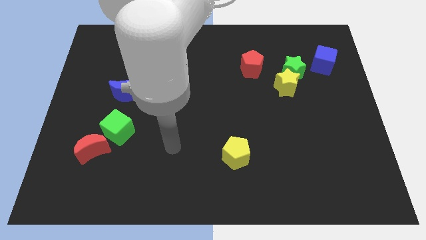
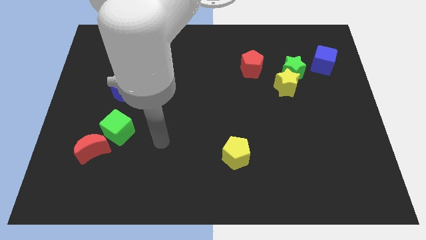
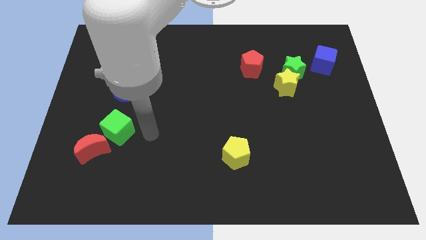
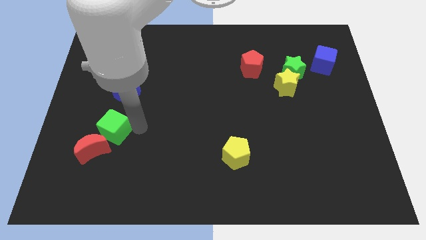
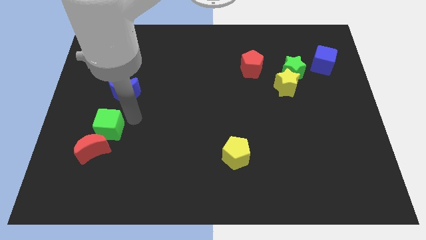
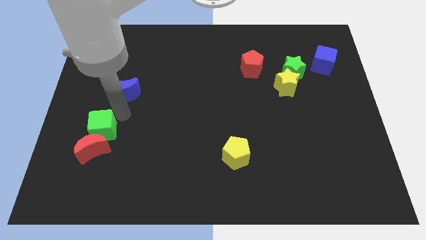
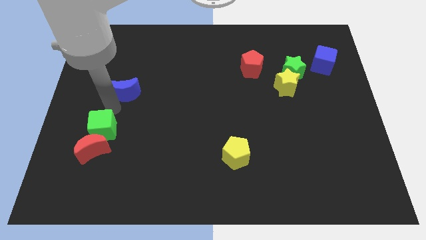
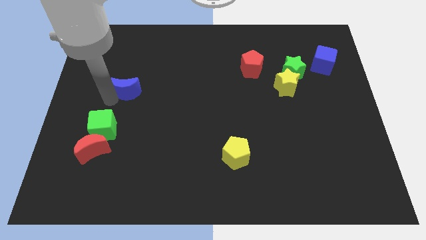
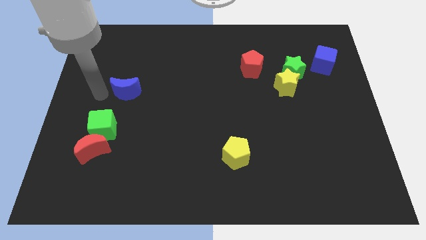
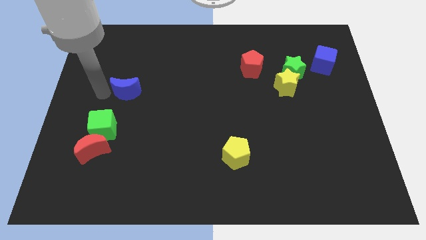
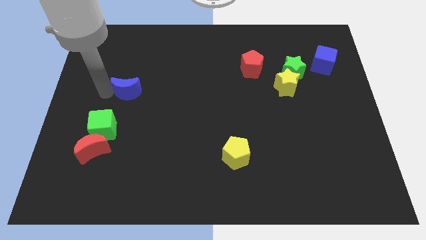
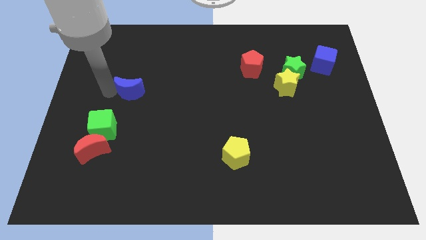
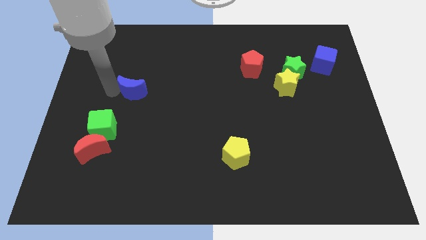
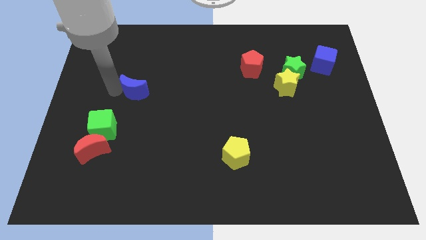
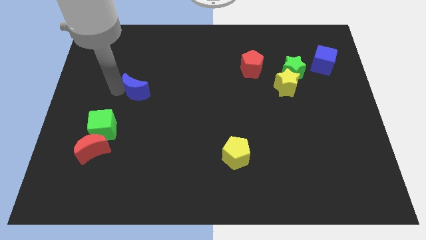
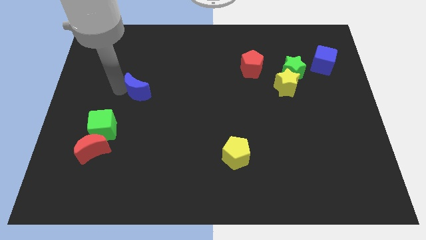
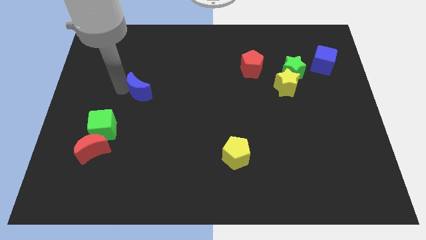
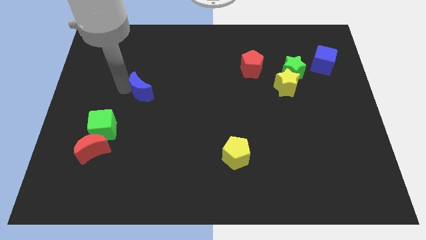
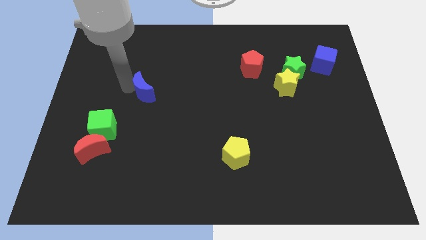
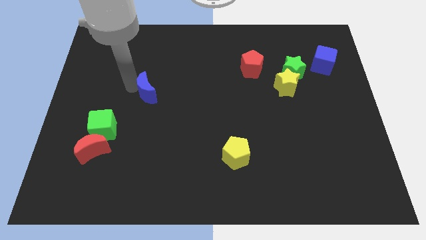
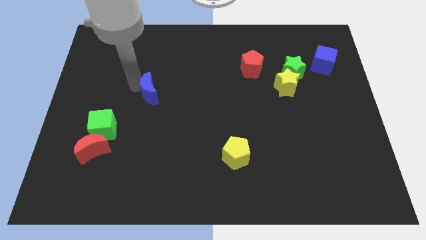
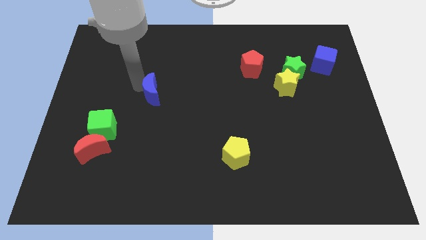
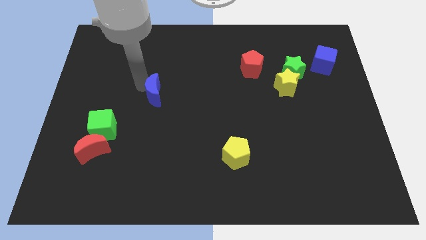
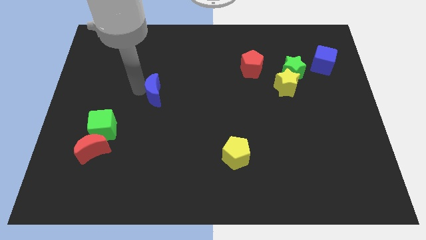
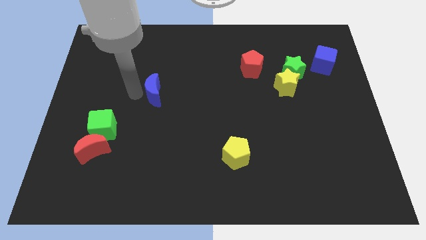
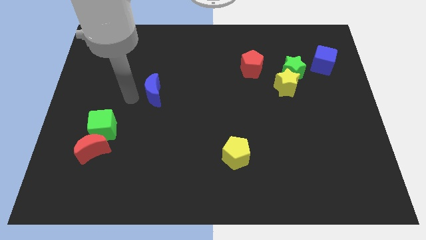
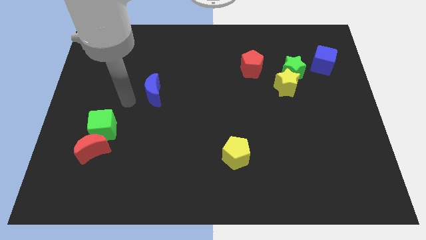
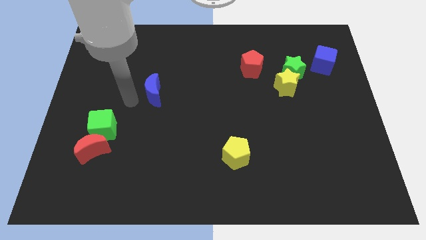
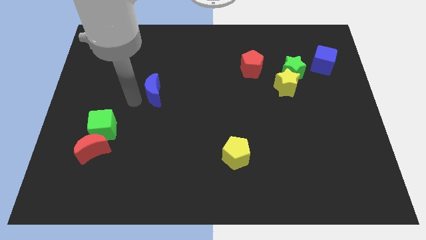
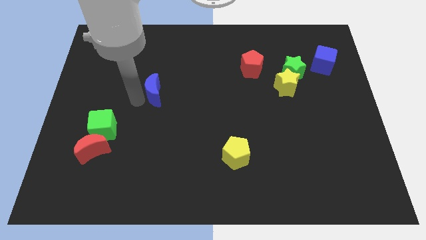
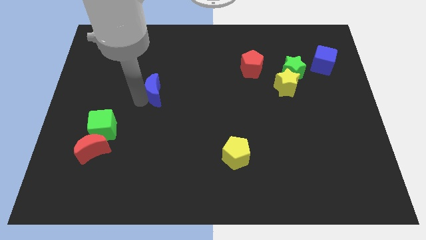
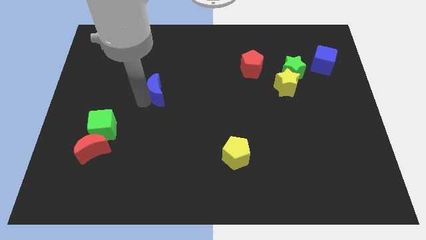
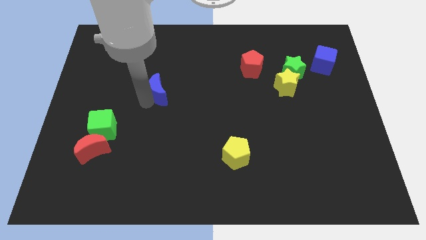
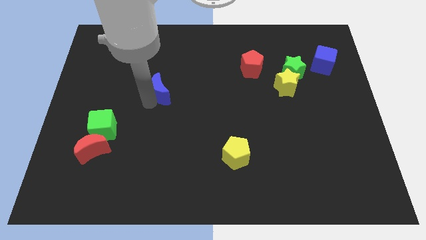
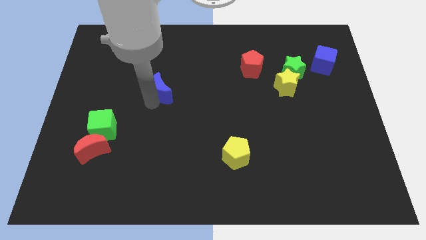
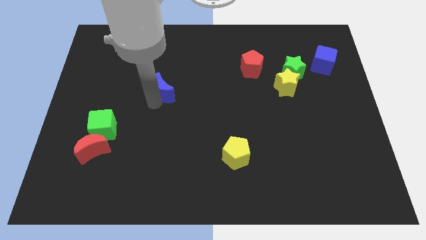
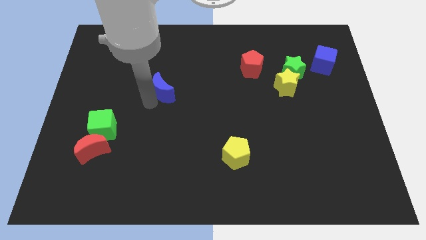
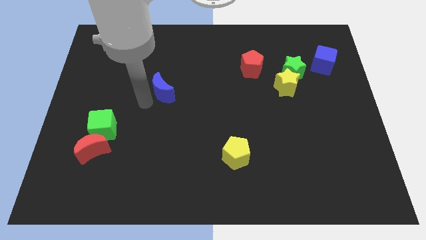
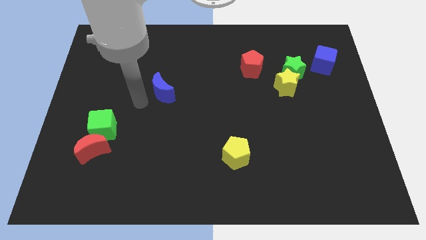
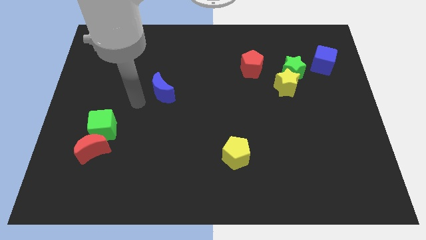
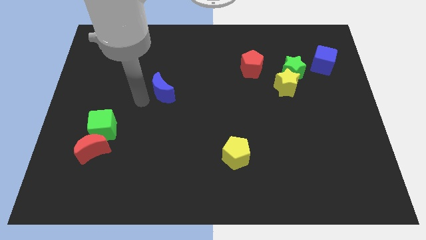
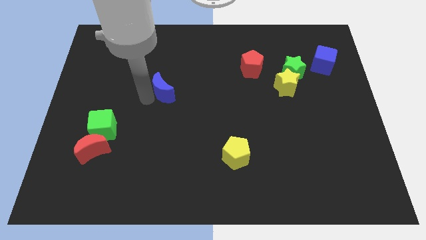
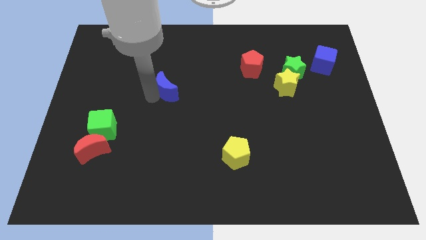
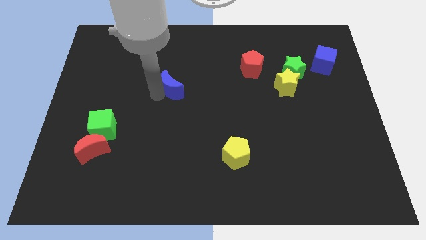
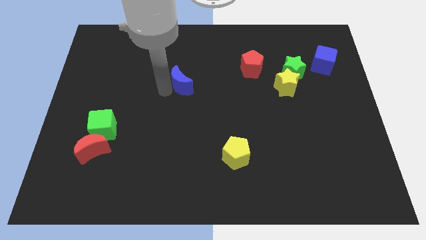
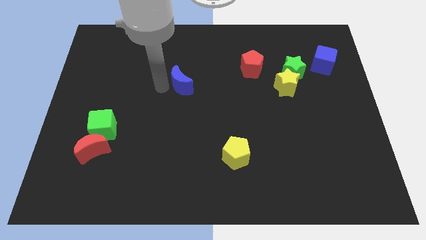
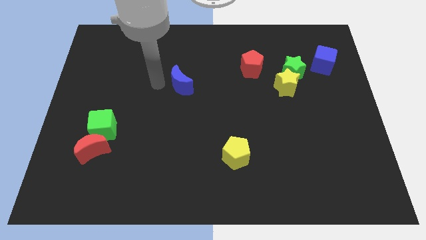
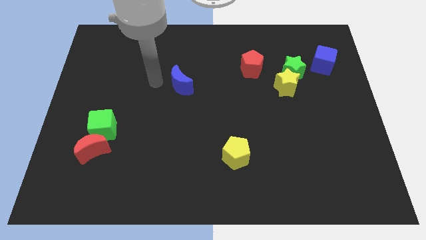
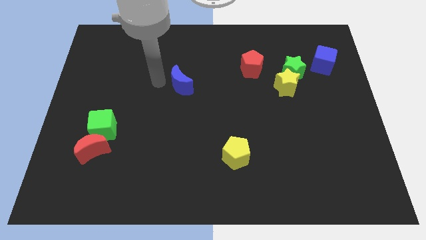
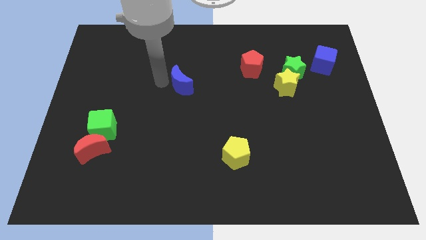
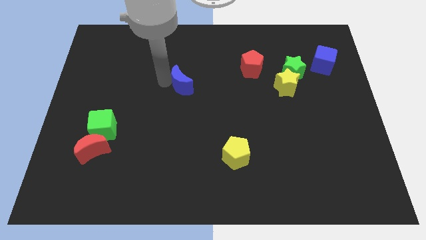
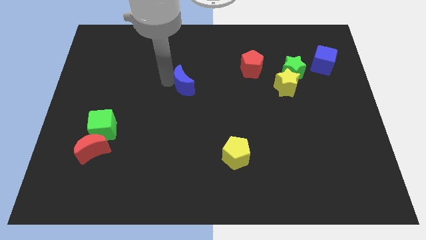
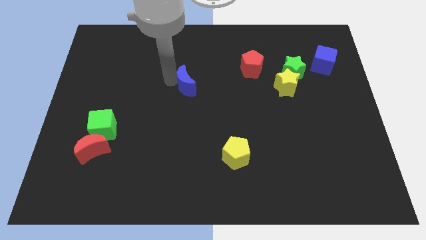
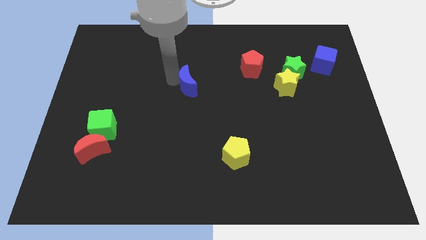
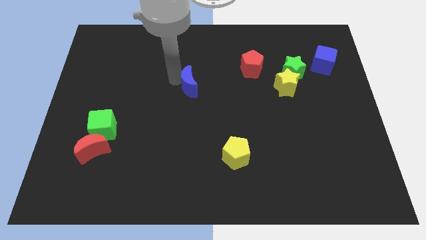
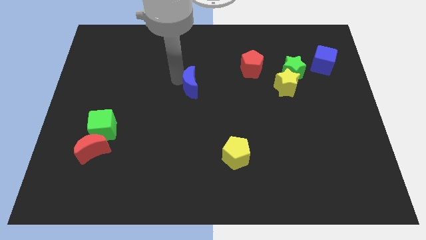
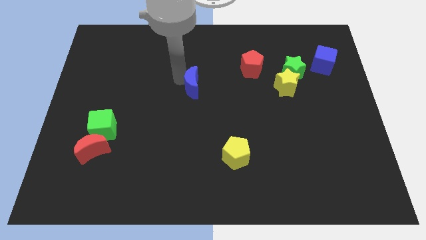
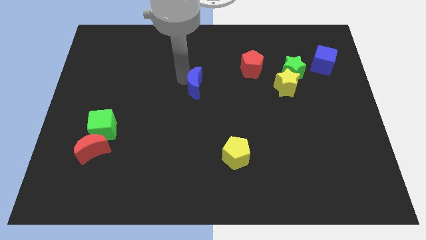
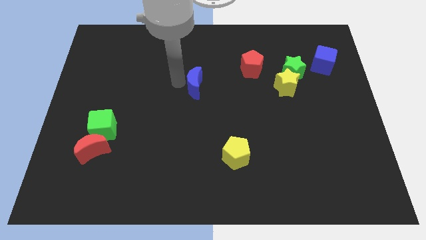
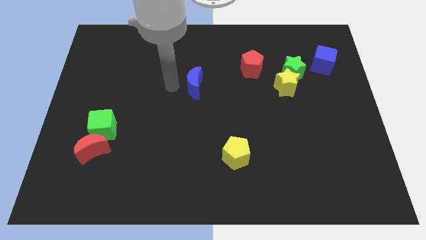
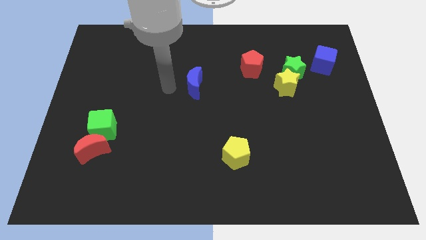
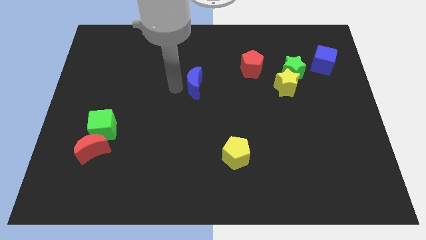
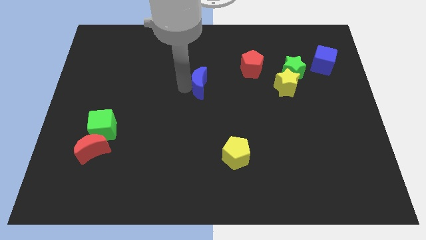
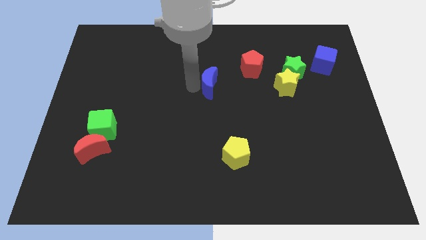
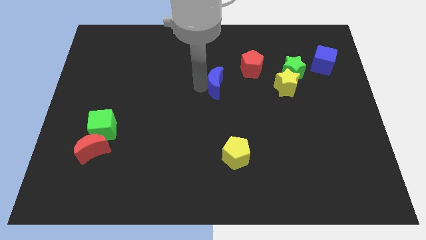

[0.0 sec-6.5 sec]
put the blue moon diagonally down and to the left of the red pentagon

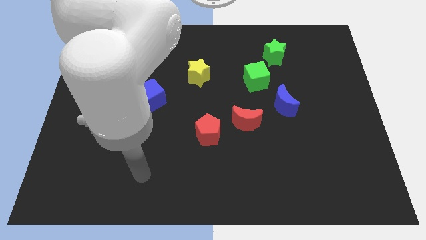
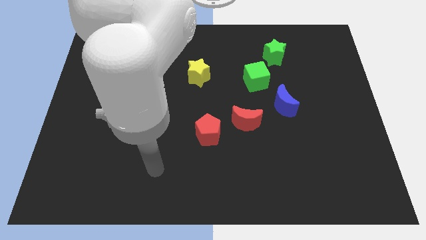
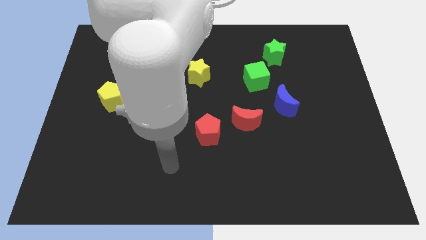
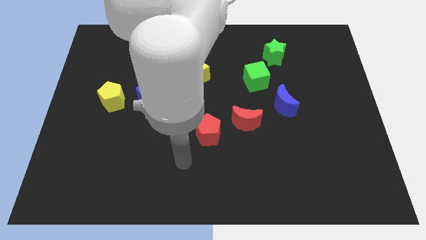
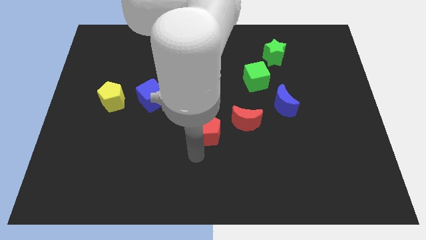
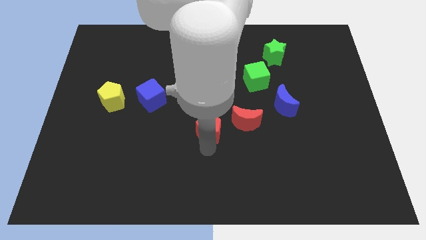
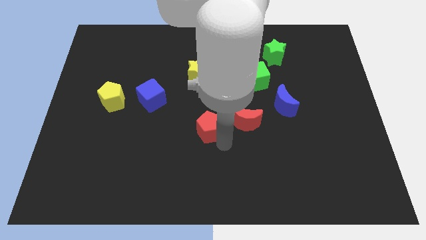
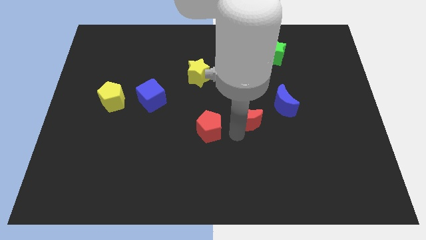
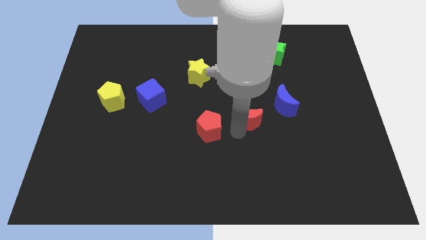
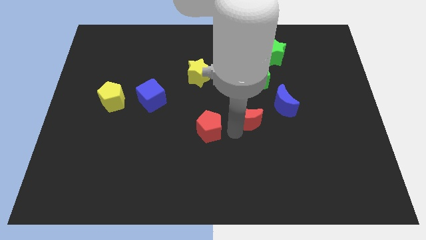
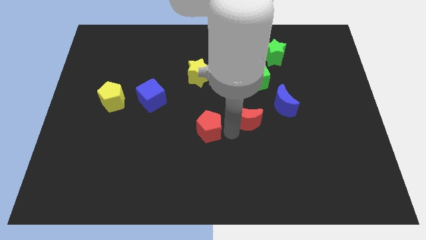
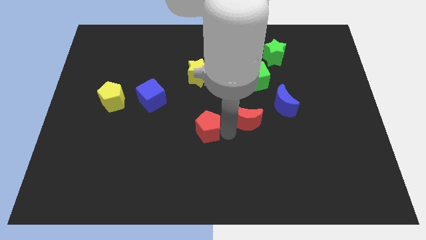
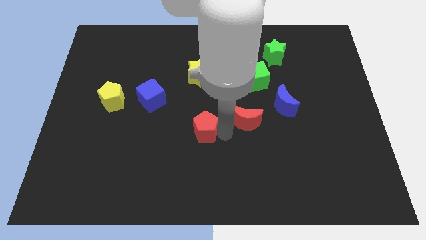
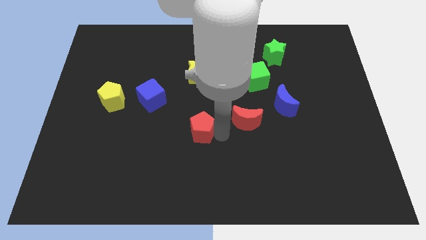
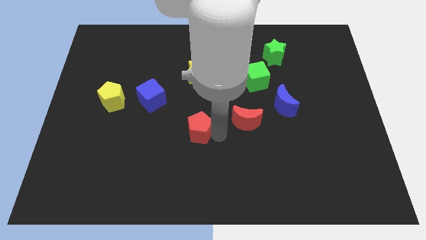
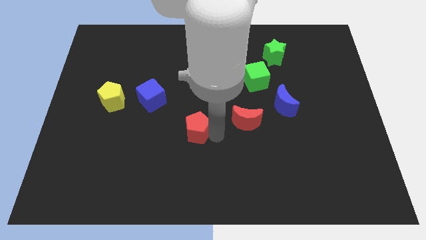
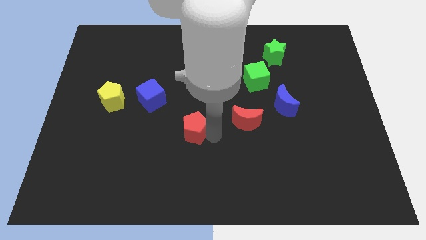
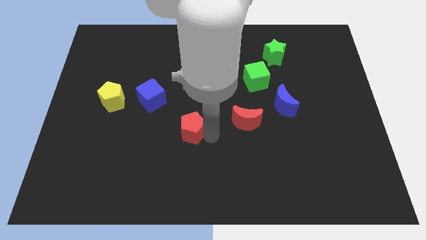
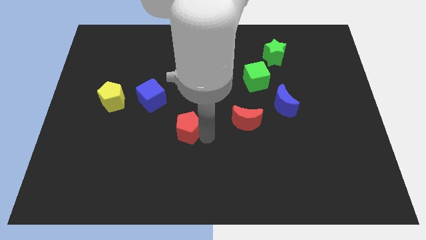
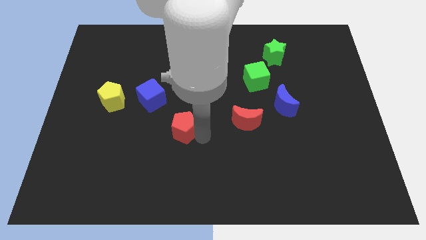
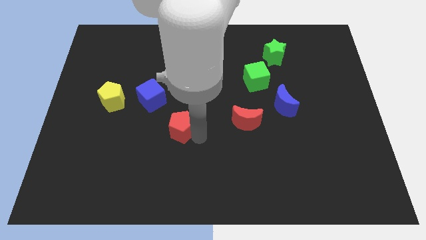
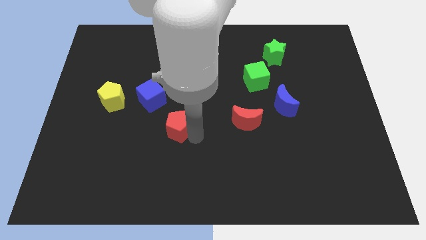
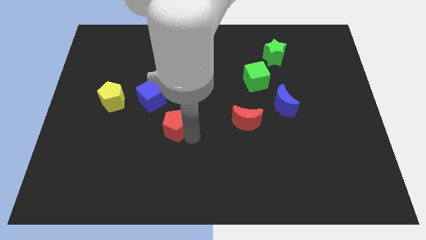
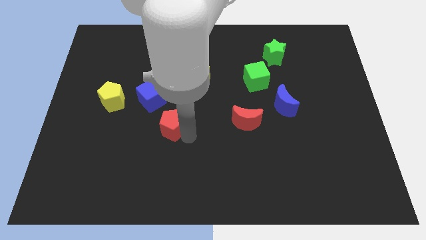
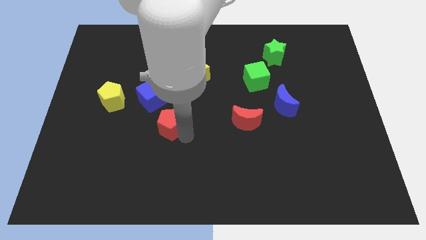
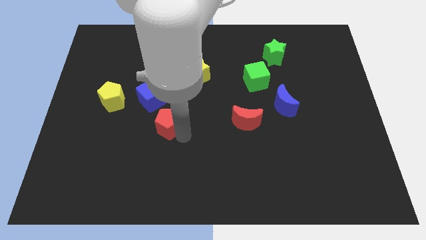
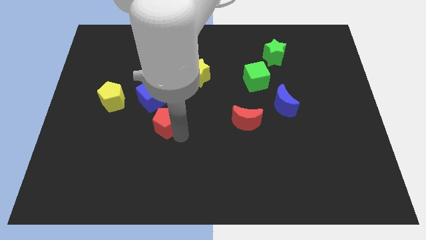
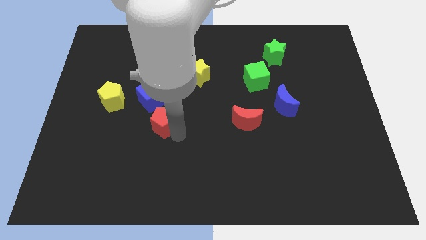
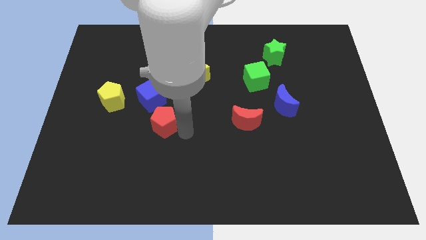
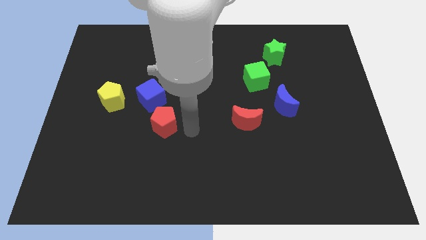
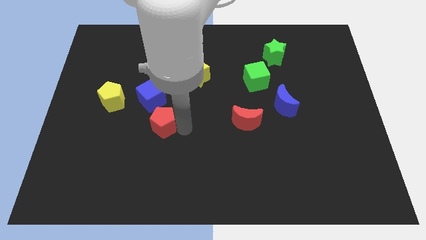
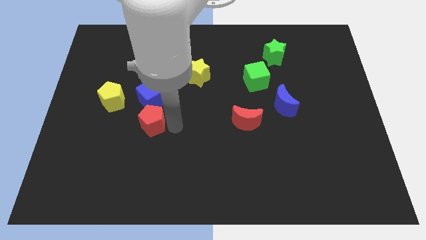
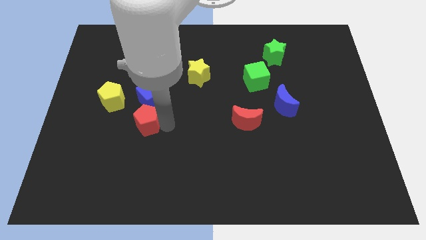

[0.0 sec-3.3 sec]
push the red pentagon to the bottom left of the blue cube
